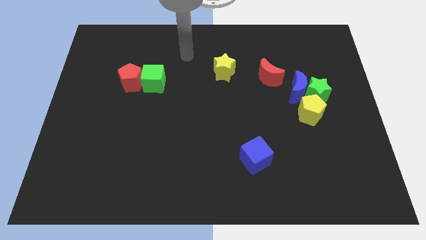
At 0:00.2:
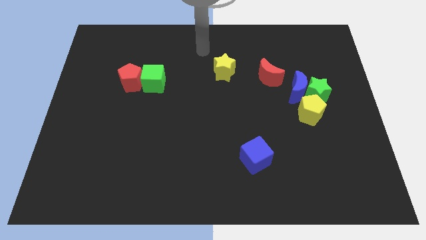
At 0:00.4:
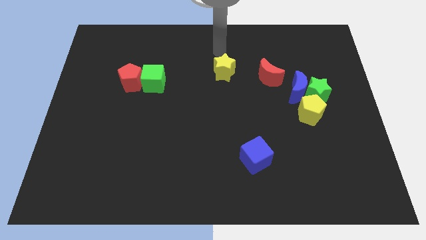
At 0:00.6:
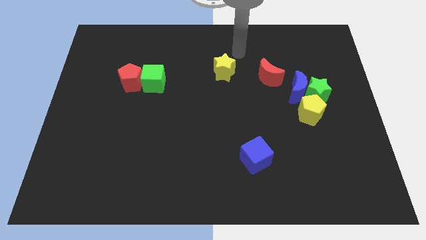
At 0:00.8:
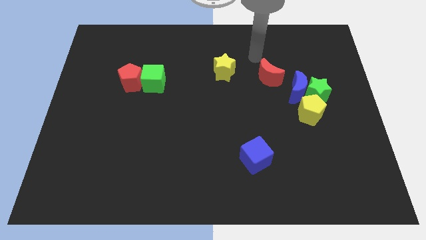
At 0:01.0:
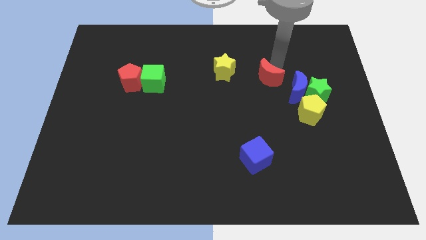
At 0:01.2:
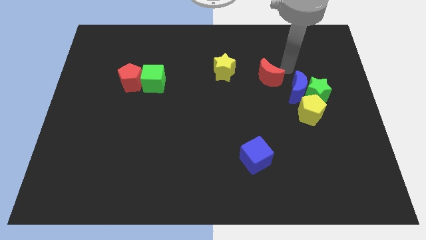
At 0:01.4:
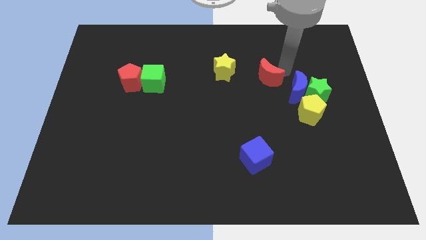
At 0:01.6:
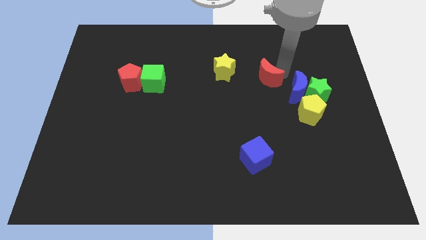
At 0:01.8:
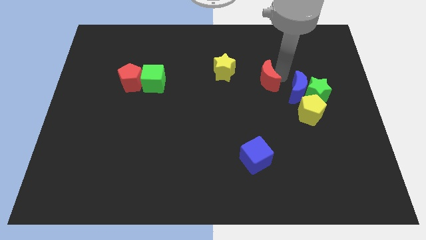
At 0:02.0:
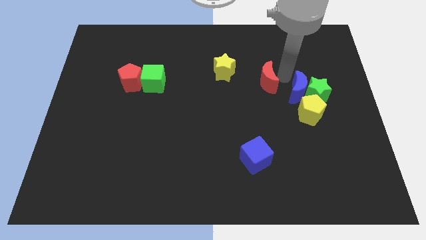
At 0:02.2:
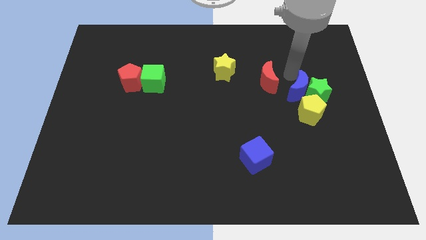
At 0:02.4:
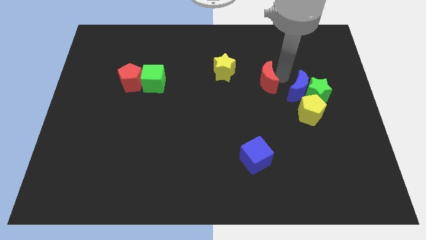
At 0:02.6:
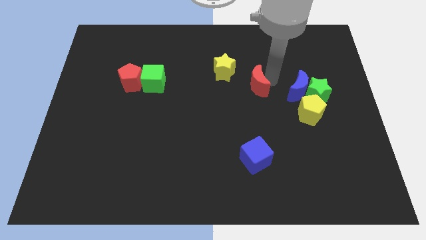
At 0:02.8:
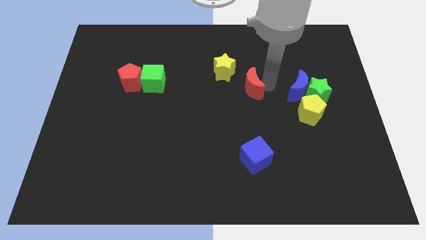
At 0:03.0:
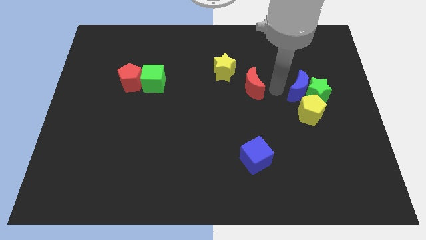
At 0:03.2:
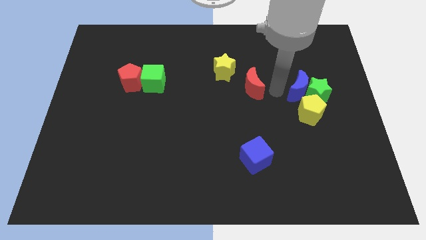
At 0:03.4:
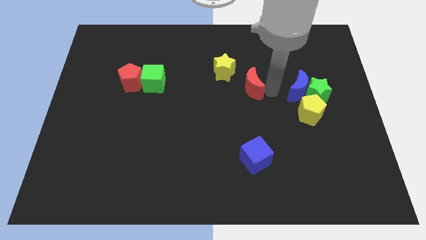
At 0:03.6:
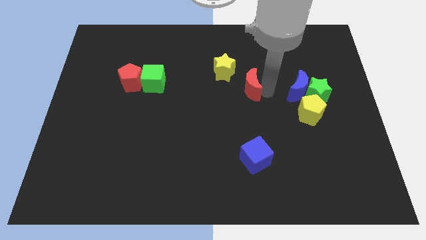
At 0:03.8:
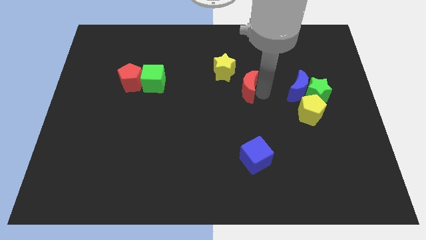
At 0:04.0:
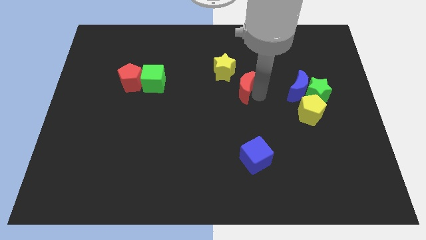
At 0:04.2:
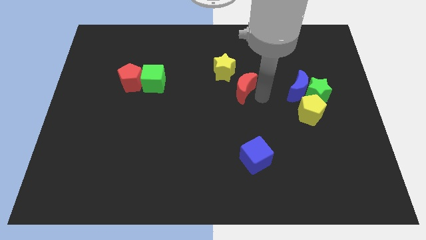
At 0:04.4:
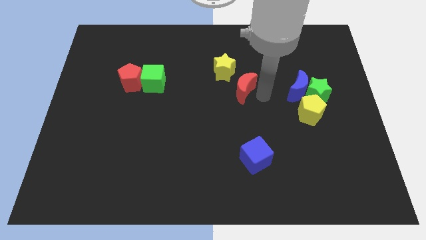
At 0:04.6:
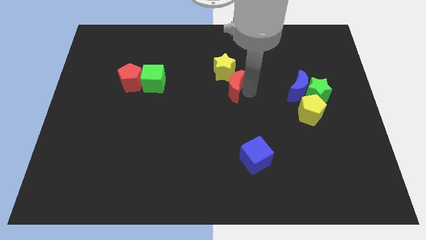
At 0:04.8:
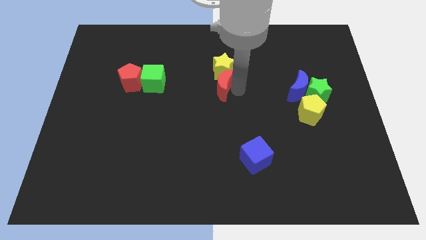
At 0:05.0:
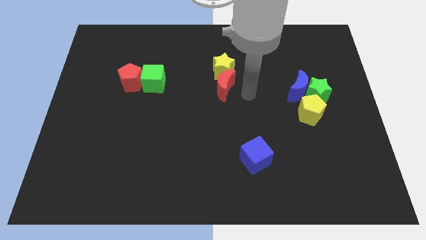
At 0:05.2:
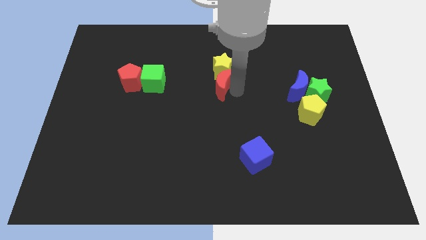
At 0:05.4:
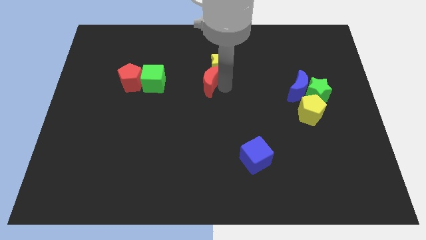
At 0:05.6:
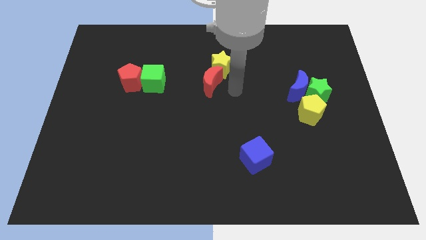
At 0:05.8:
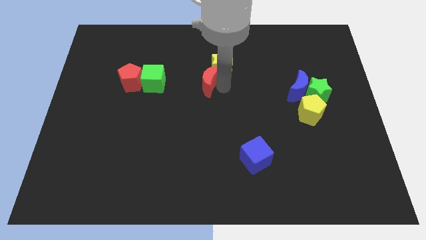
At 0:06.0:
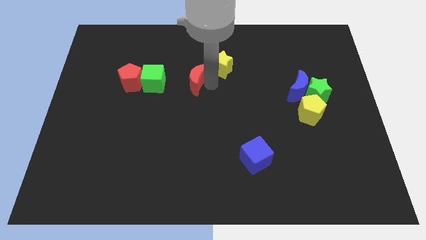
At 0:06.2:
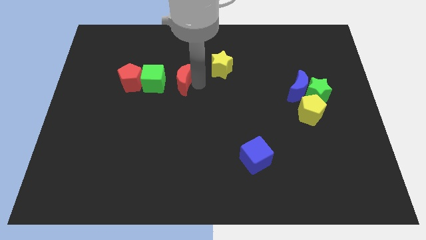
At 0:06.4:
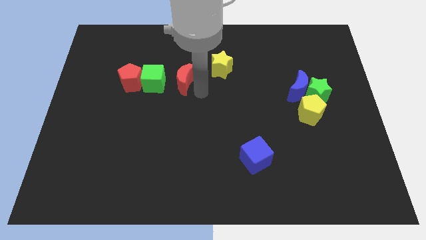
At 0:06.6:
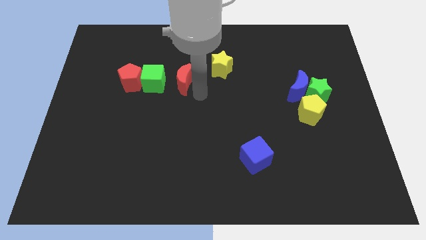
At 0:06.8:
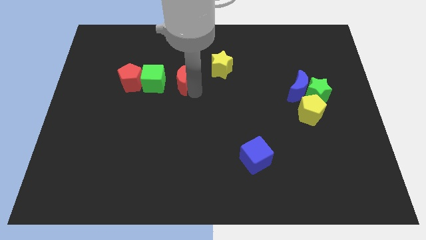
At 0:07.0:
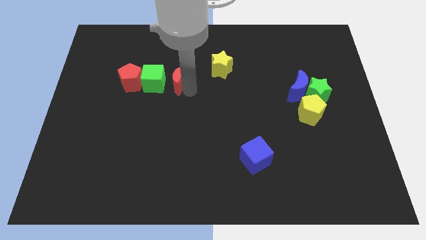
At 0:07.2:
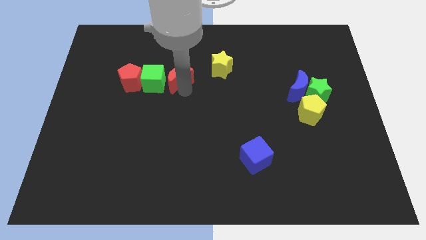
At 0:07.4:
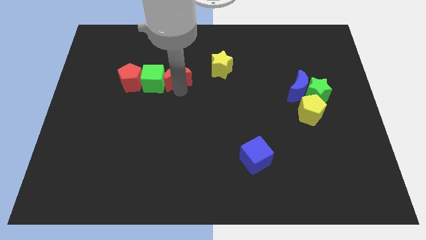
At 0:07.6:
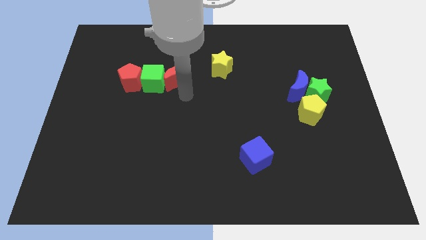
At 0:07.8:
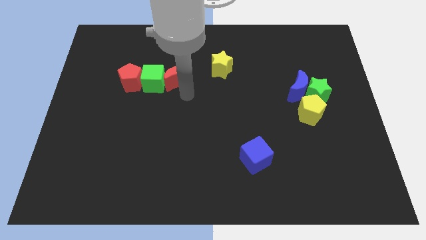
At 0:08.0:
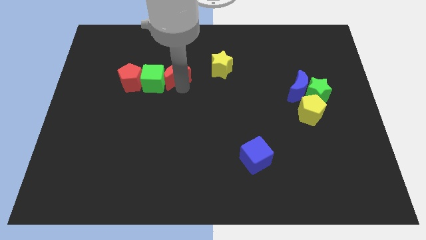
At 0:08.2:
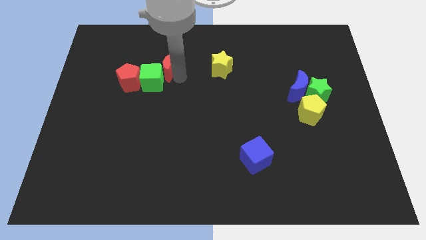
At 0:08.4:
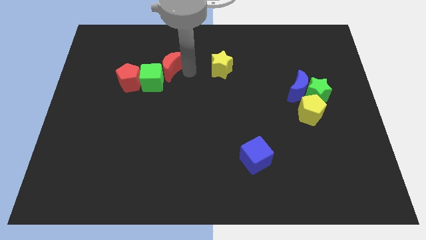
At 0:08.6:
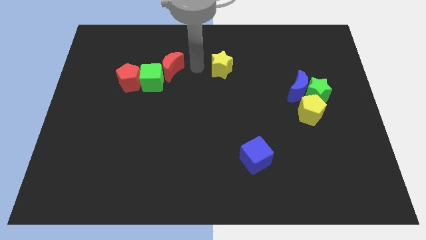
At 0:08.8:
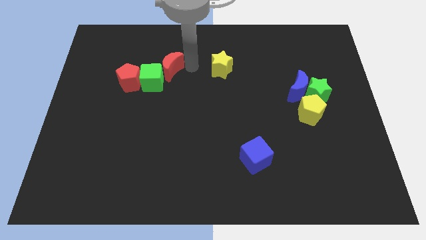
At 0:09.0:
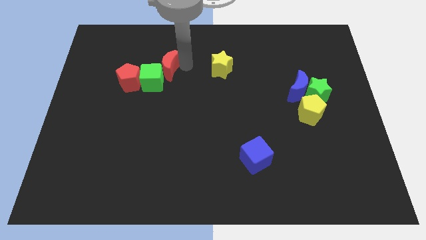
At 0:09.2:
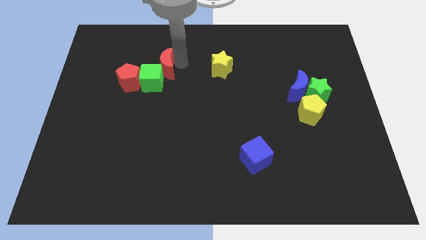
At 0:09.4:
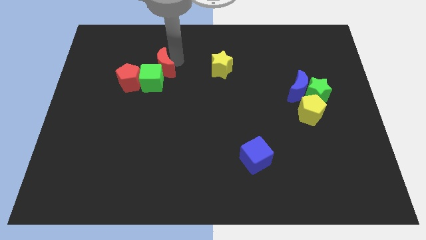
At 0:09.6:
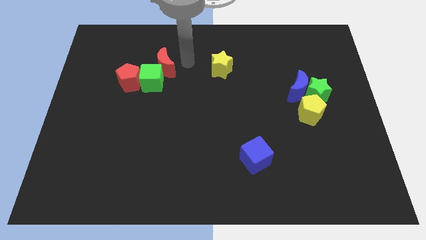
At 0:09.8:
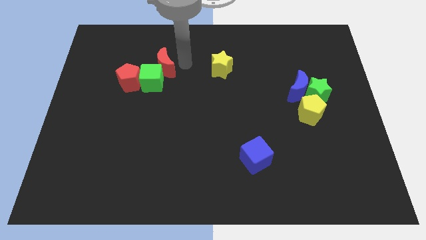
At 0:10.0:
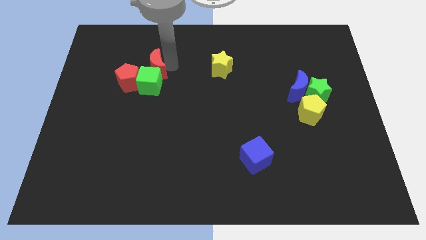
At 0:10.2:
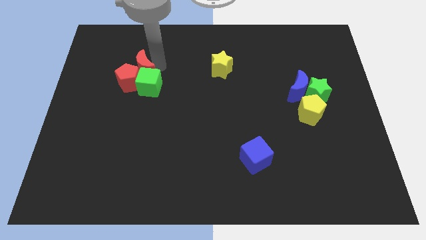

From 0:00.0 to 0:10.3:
put the red moon close to the red pentagon

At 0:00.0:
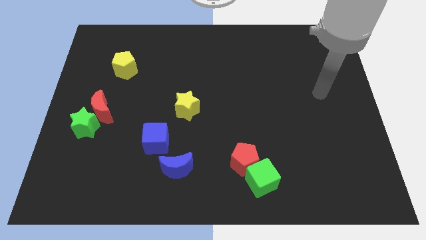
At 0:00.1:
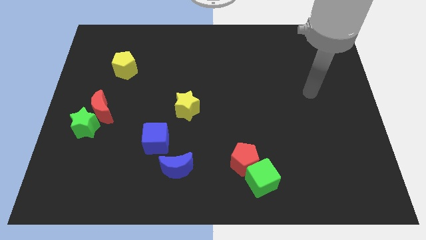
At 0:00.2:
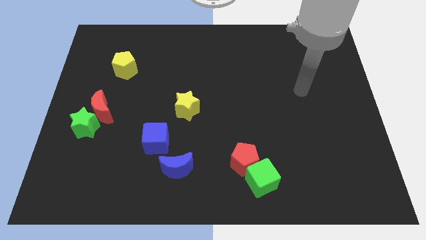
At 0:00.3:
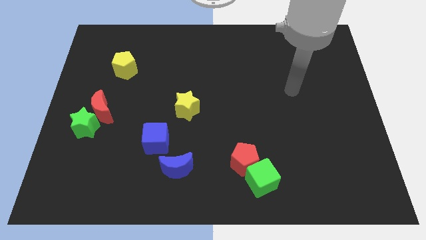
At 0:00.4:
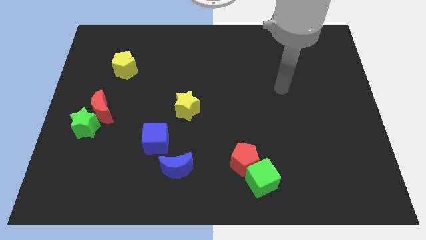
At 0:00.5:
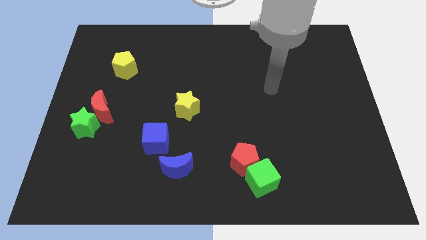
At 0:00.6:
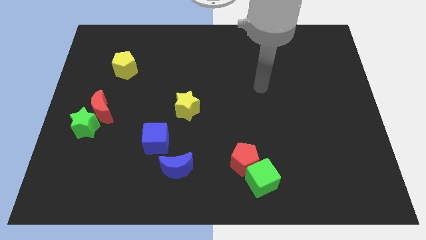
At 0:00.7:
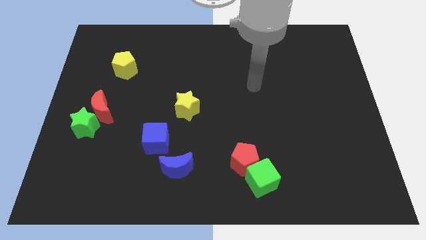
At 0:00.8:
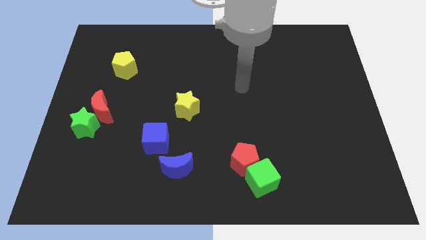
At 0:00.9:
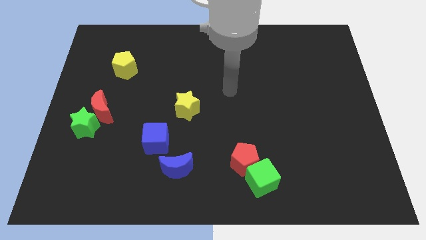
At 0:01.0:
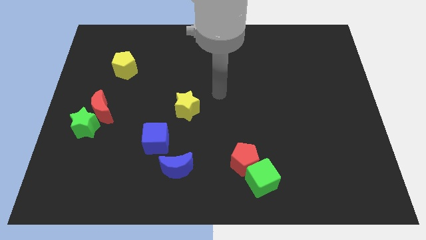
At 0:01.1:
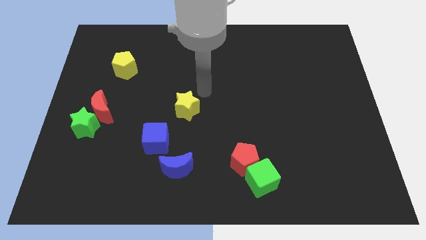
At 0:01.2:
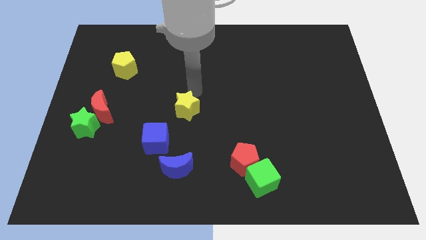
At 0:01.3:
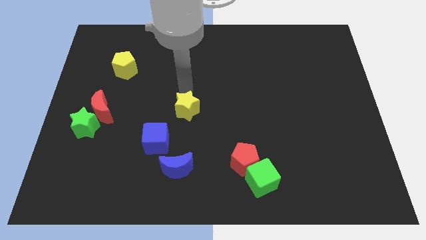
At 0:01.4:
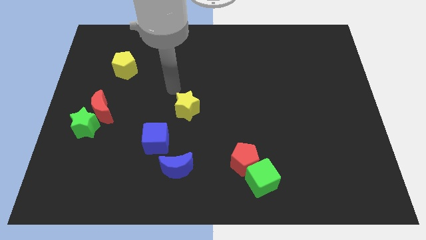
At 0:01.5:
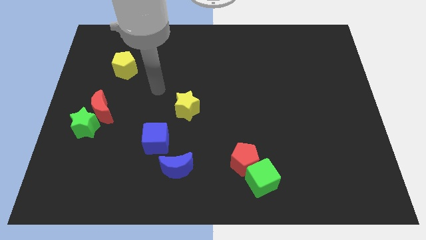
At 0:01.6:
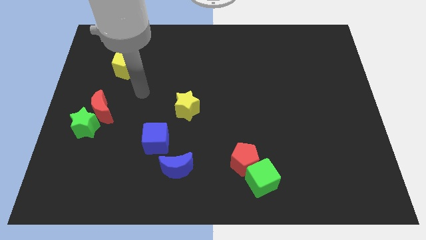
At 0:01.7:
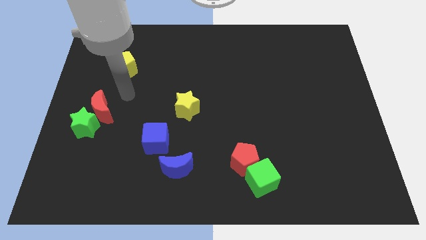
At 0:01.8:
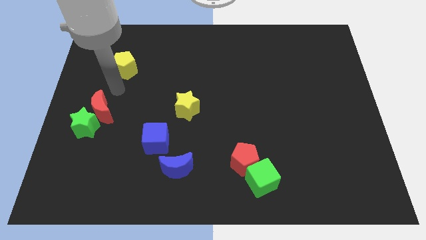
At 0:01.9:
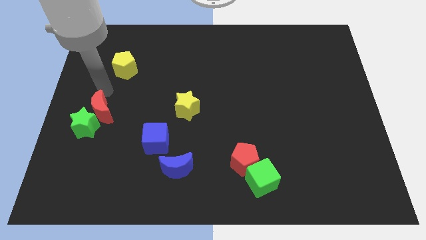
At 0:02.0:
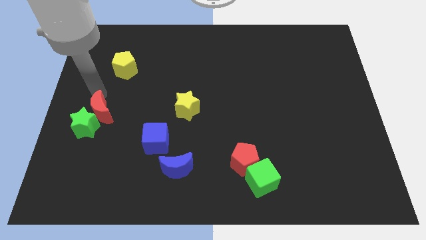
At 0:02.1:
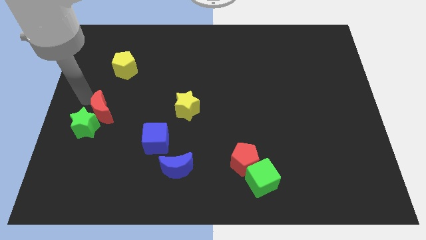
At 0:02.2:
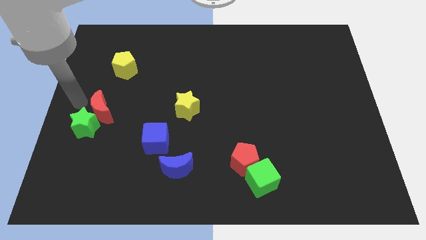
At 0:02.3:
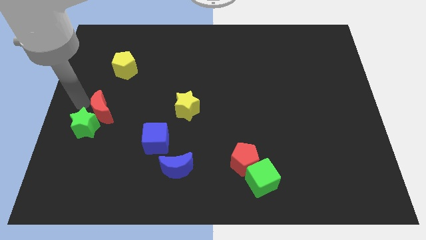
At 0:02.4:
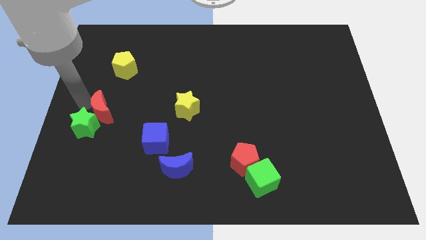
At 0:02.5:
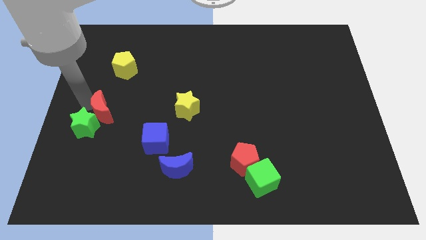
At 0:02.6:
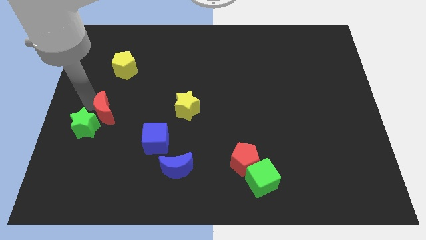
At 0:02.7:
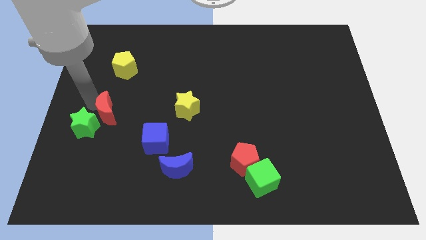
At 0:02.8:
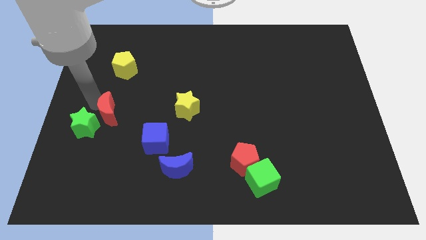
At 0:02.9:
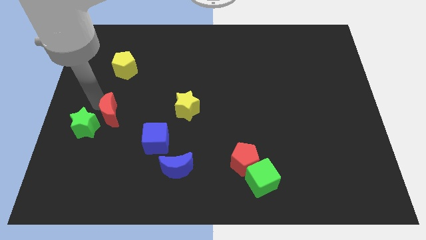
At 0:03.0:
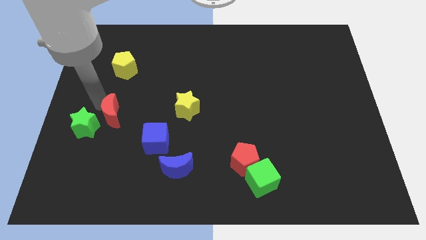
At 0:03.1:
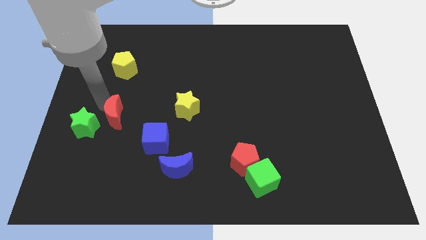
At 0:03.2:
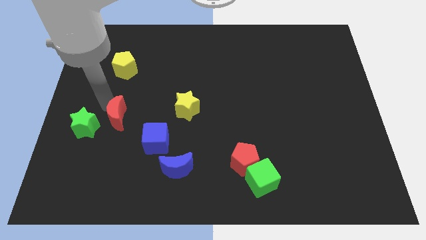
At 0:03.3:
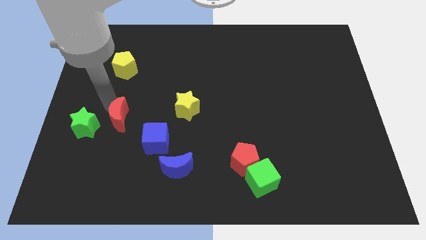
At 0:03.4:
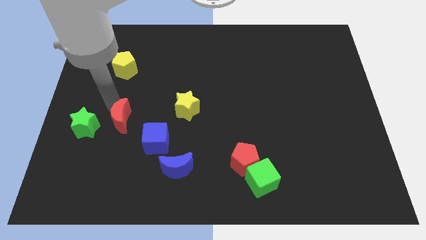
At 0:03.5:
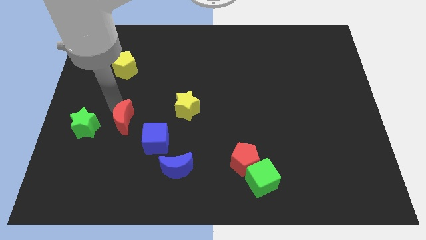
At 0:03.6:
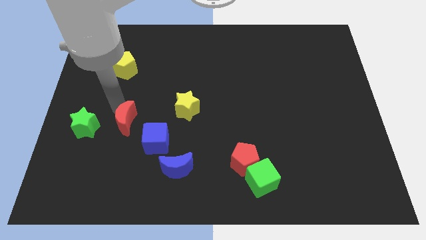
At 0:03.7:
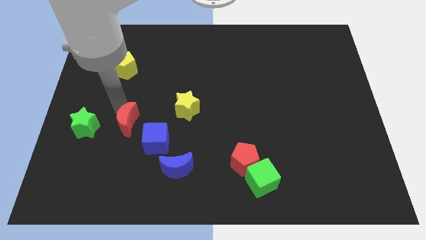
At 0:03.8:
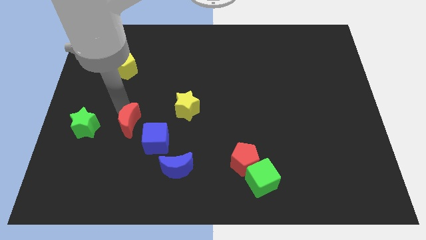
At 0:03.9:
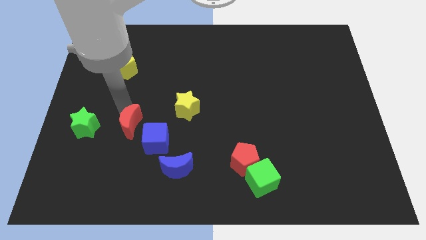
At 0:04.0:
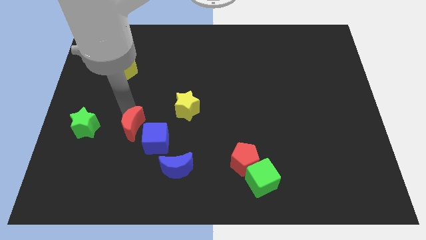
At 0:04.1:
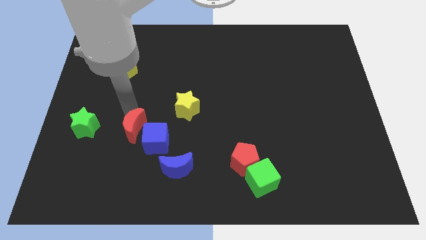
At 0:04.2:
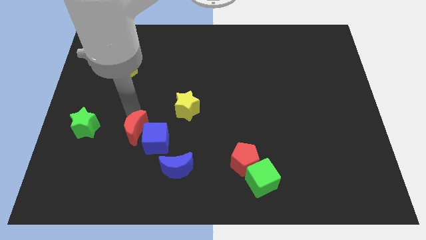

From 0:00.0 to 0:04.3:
put the red moon to the blue cube
